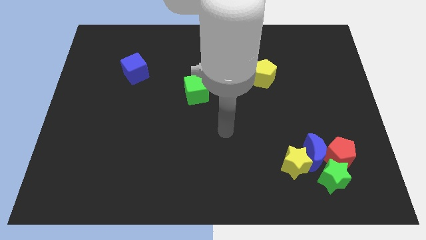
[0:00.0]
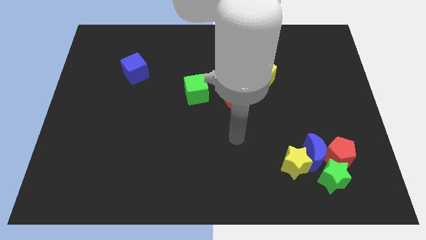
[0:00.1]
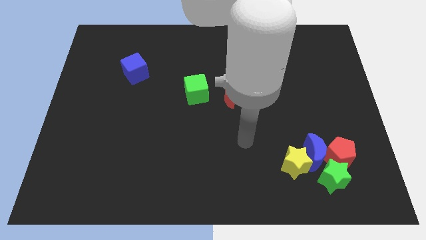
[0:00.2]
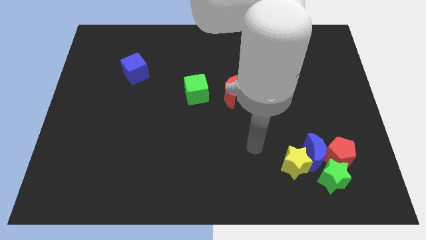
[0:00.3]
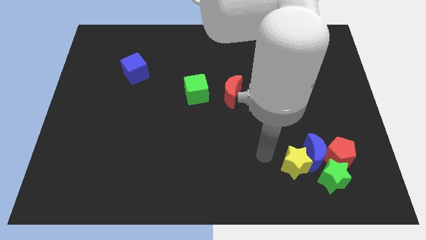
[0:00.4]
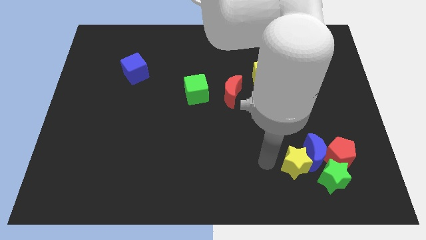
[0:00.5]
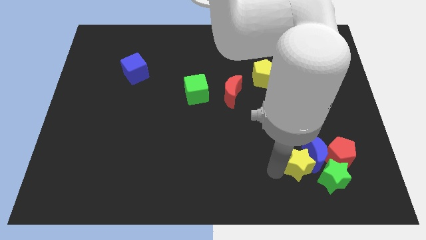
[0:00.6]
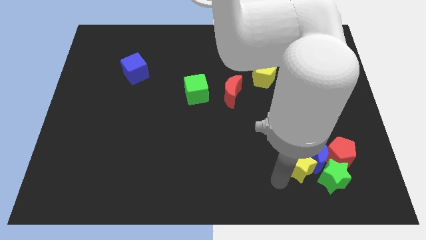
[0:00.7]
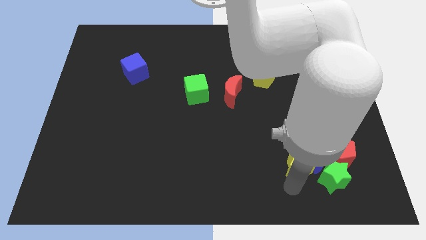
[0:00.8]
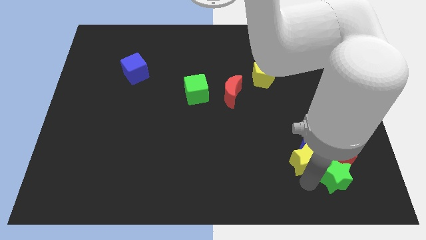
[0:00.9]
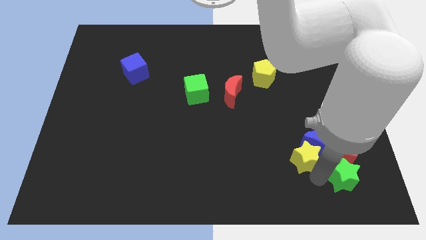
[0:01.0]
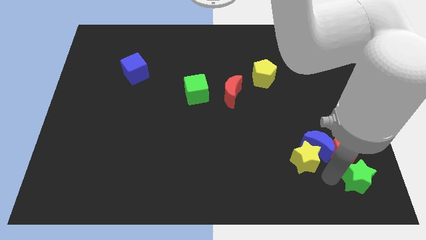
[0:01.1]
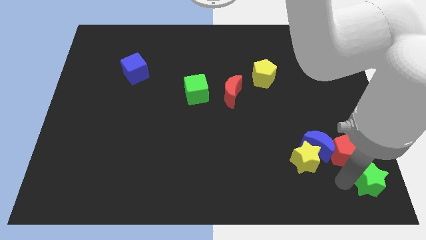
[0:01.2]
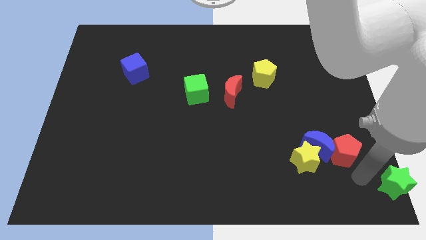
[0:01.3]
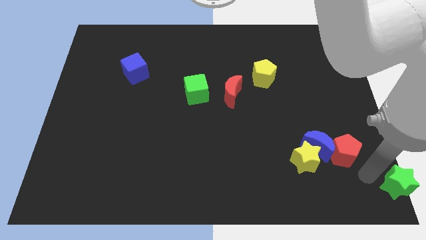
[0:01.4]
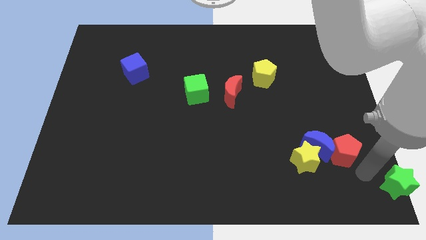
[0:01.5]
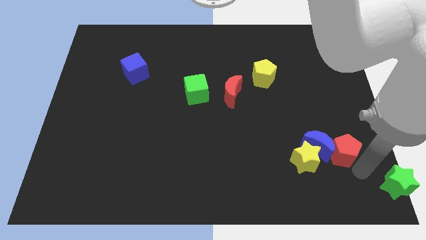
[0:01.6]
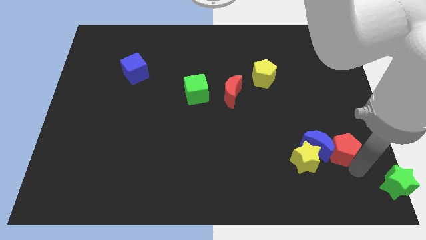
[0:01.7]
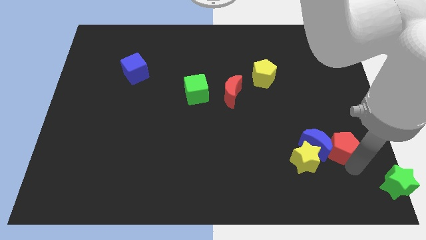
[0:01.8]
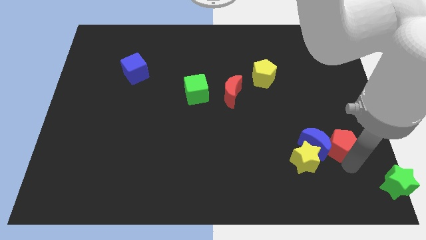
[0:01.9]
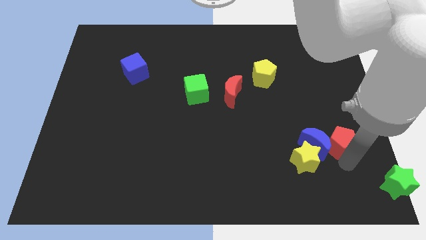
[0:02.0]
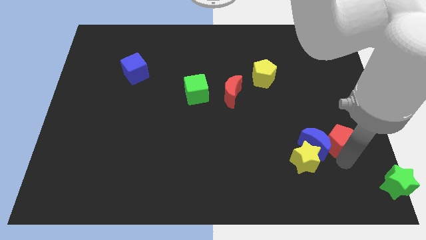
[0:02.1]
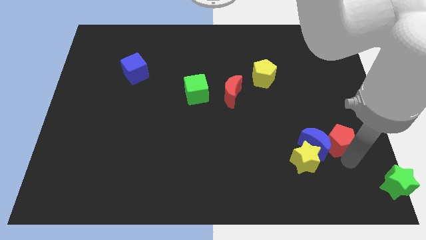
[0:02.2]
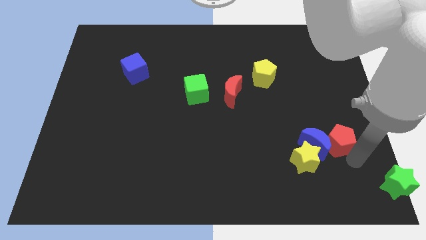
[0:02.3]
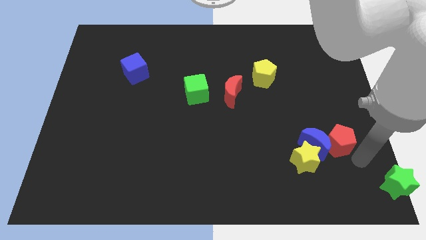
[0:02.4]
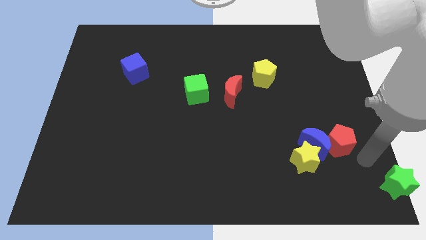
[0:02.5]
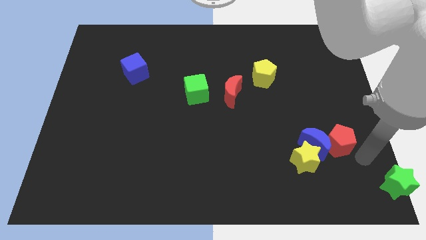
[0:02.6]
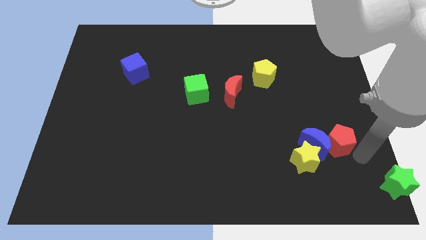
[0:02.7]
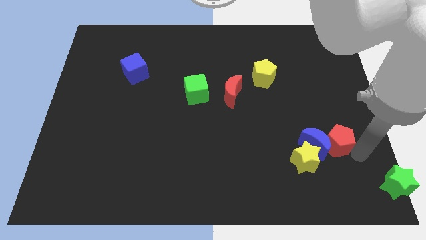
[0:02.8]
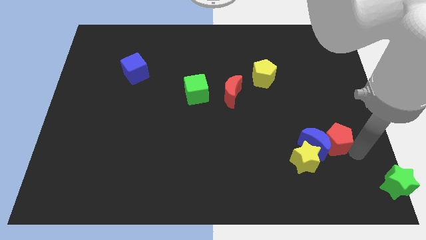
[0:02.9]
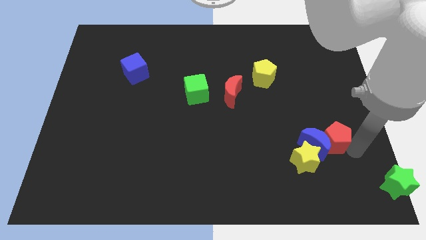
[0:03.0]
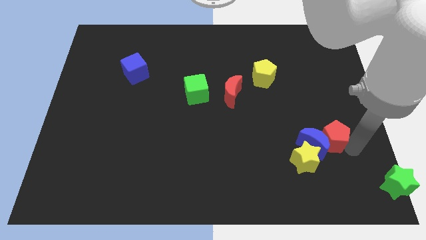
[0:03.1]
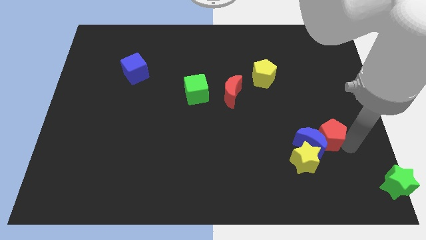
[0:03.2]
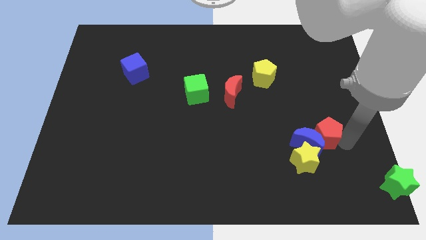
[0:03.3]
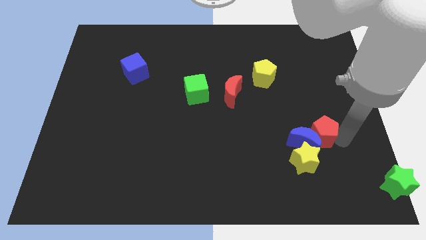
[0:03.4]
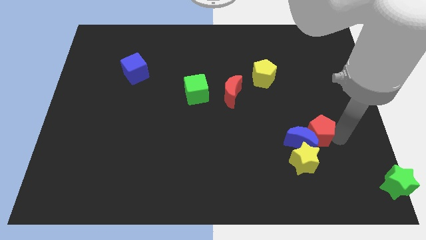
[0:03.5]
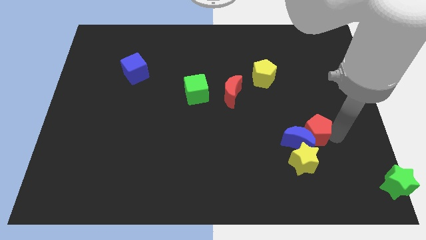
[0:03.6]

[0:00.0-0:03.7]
move the red pentagon diagonally up and left a little

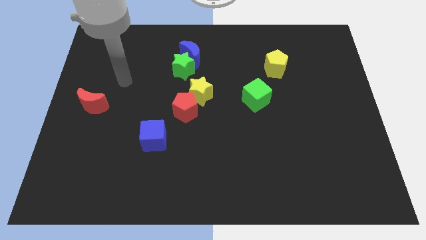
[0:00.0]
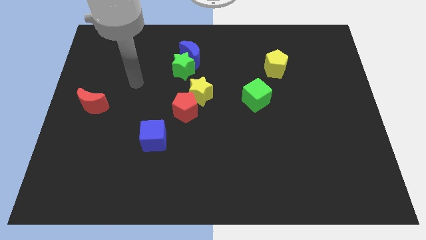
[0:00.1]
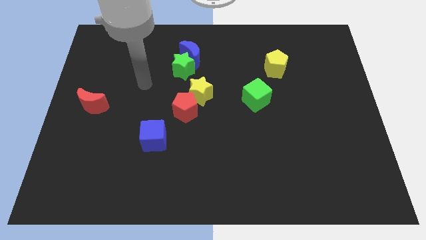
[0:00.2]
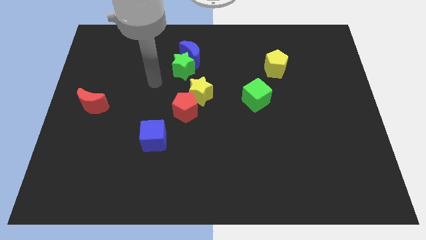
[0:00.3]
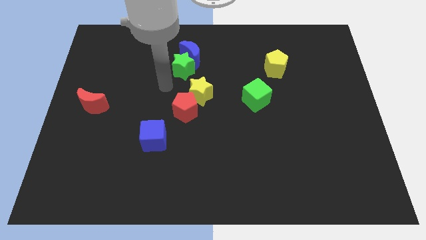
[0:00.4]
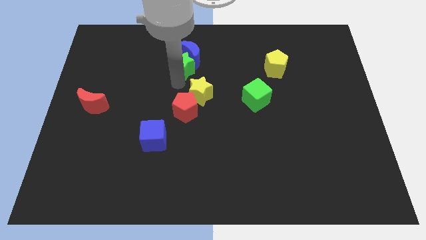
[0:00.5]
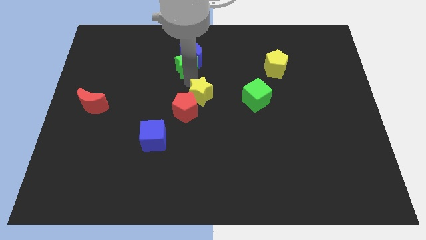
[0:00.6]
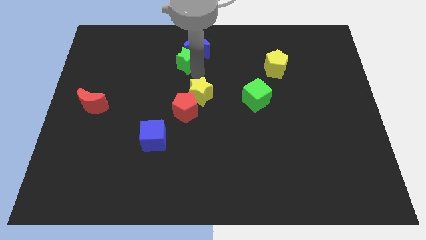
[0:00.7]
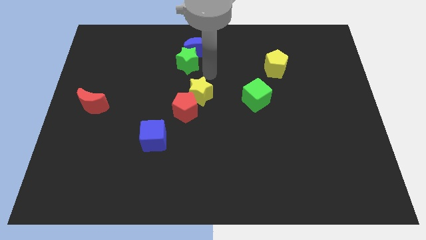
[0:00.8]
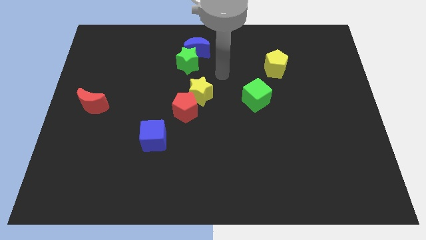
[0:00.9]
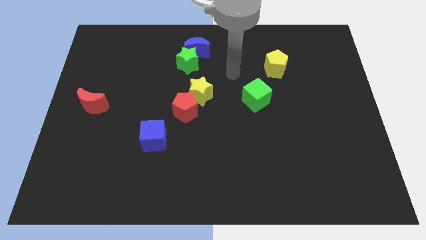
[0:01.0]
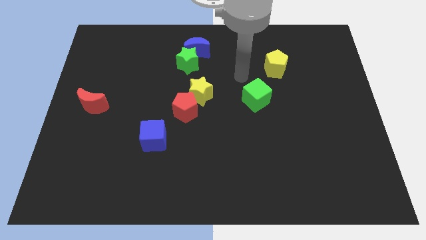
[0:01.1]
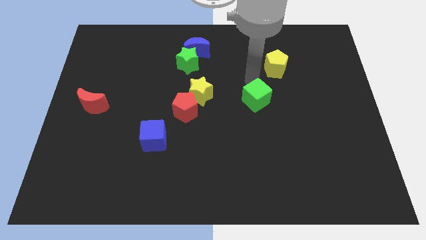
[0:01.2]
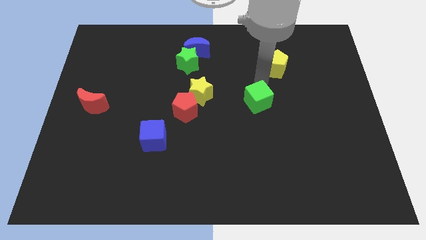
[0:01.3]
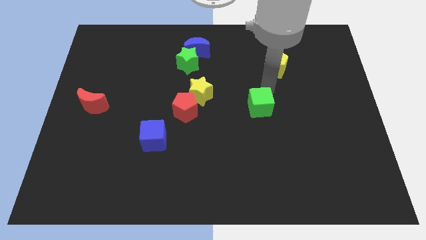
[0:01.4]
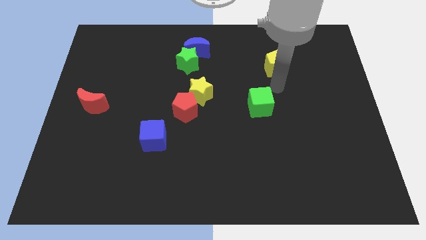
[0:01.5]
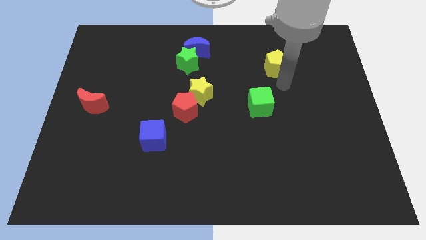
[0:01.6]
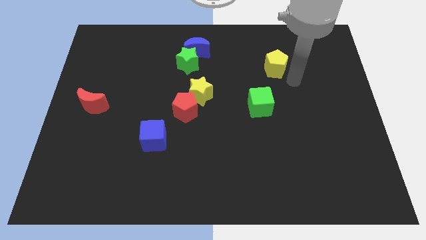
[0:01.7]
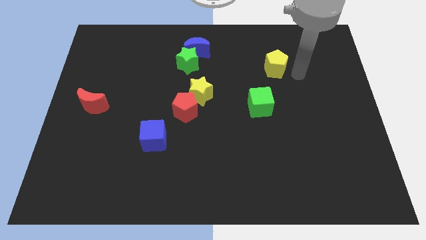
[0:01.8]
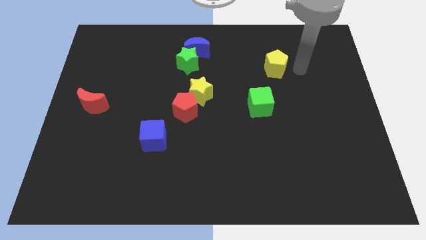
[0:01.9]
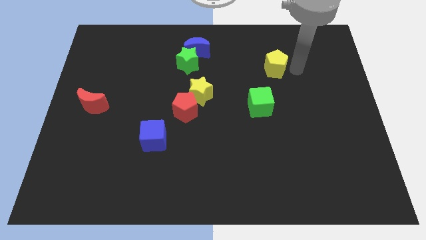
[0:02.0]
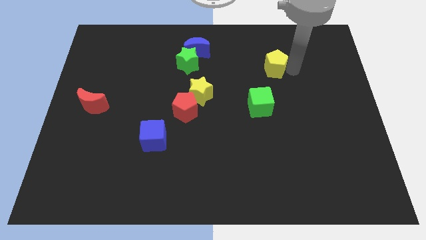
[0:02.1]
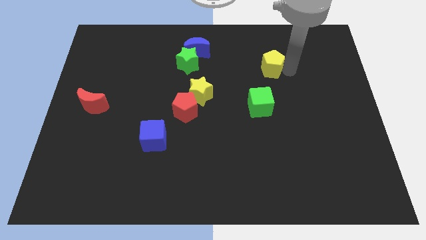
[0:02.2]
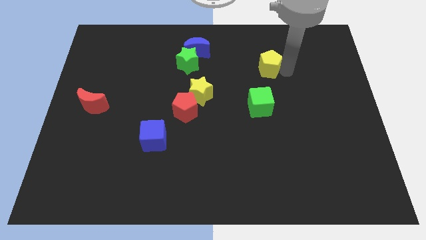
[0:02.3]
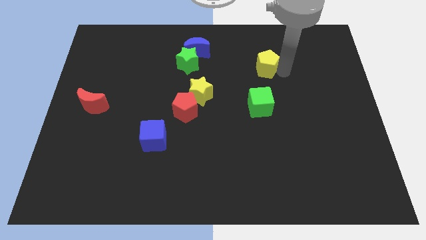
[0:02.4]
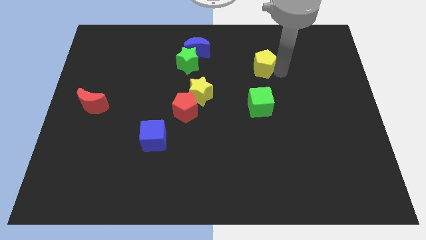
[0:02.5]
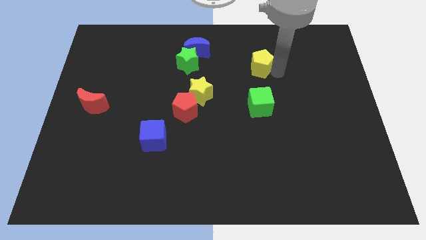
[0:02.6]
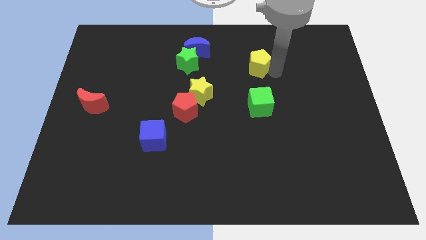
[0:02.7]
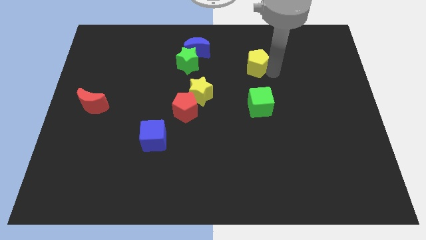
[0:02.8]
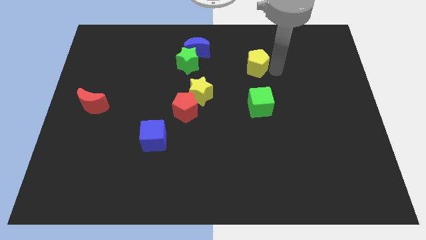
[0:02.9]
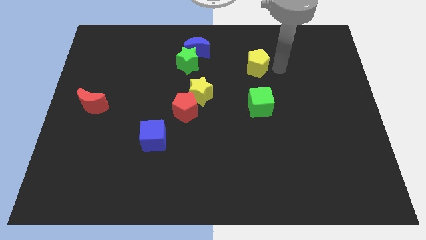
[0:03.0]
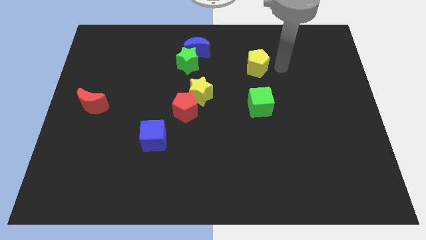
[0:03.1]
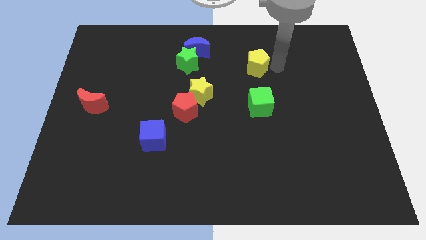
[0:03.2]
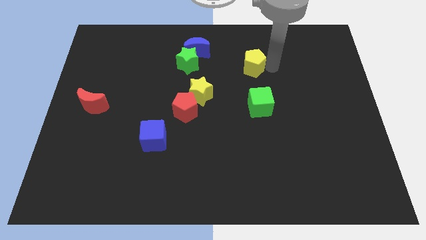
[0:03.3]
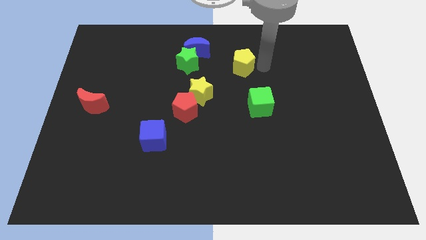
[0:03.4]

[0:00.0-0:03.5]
slide the yellow pentagon to the left somewhat

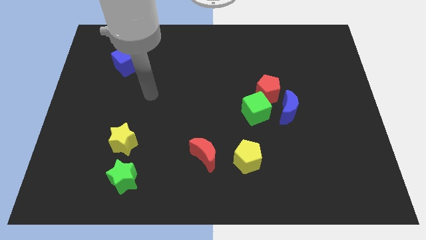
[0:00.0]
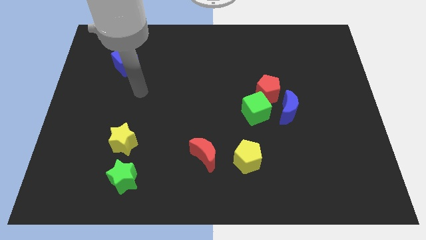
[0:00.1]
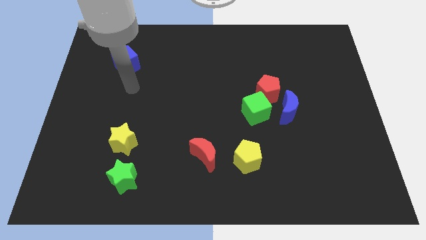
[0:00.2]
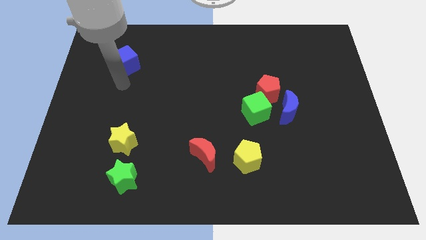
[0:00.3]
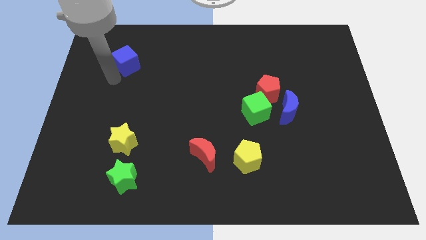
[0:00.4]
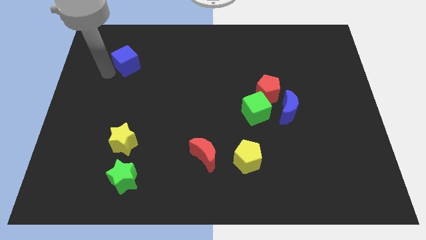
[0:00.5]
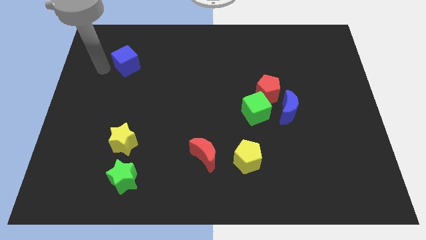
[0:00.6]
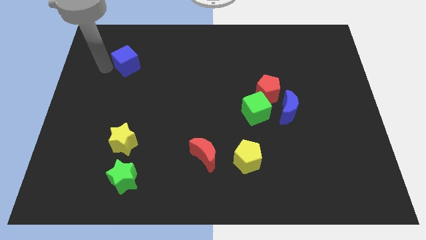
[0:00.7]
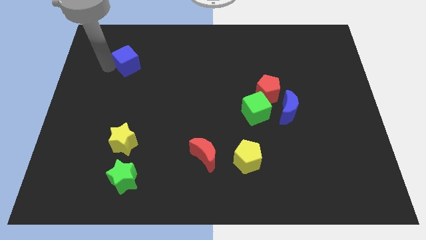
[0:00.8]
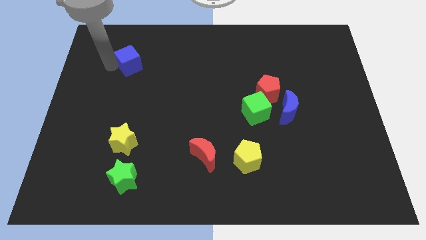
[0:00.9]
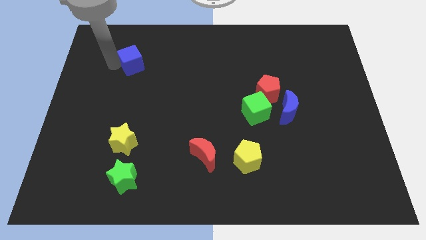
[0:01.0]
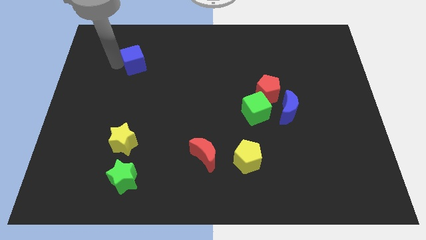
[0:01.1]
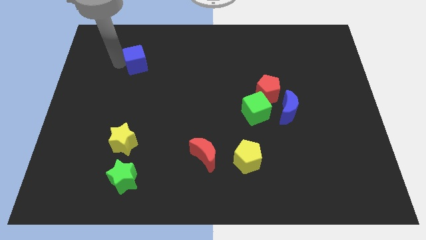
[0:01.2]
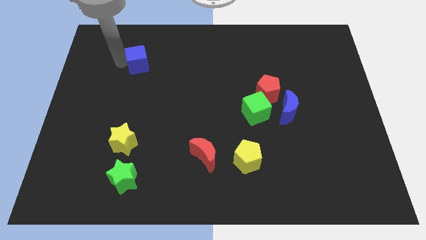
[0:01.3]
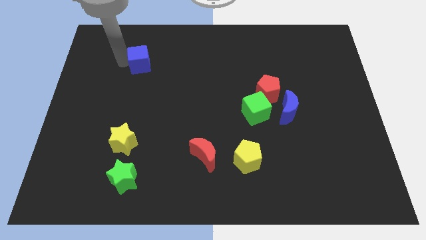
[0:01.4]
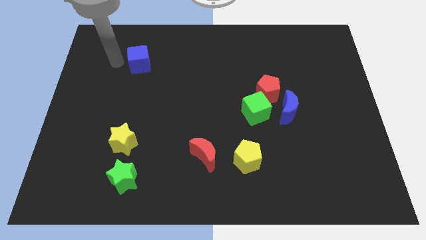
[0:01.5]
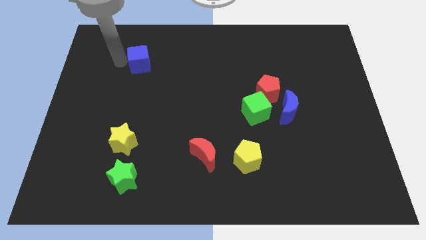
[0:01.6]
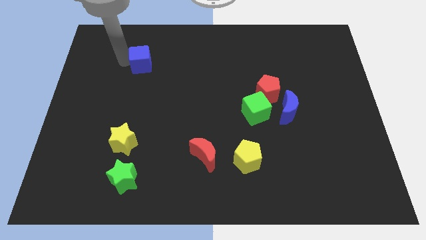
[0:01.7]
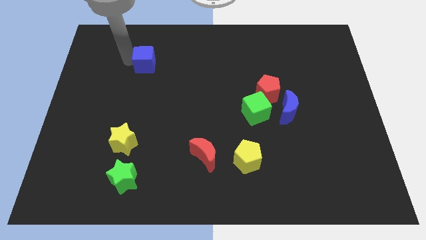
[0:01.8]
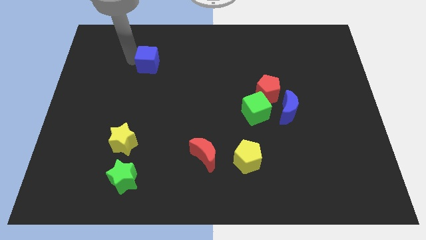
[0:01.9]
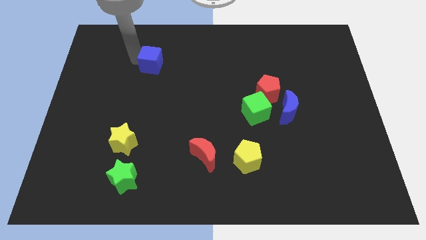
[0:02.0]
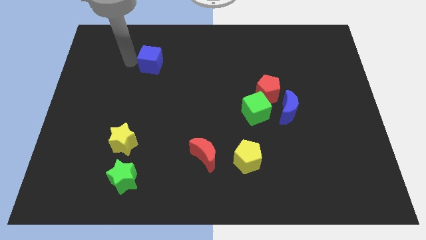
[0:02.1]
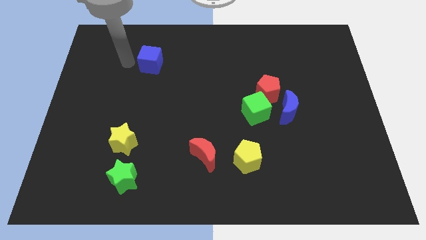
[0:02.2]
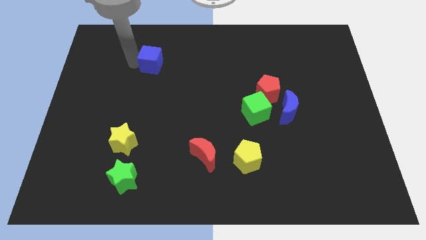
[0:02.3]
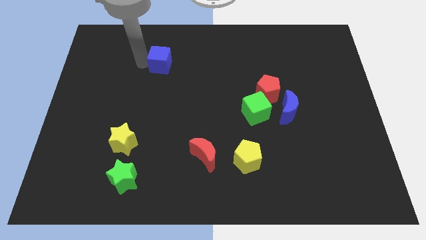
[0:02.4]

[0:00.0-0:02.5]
slide the blue cube right slightly
